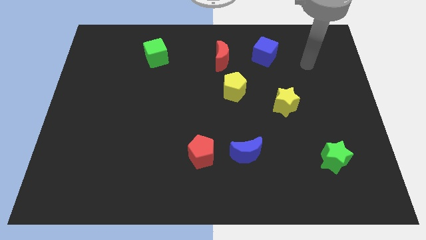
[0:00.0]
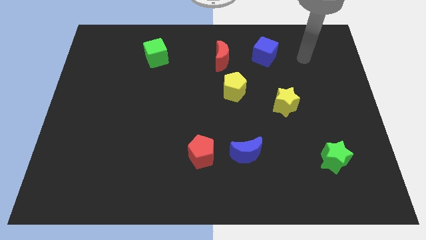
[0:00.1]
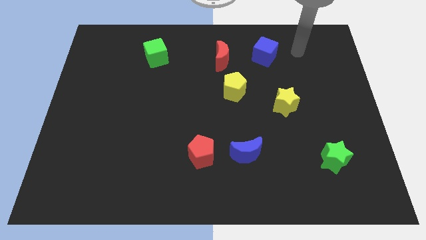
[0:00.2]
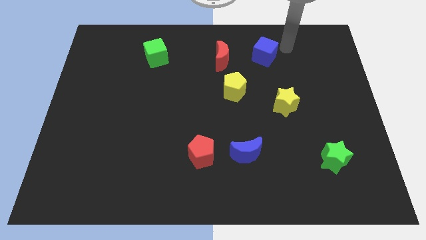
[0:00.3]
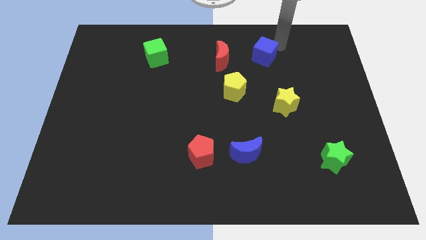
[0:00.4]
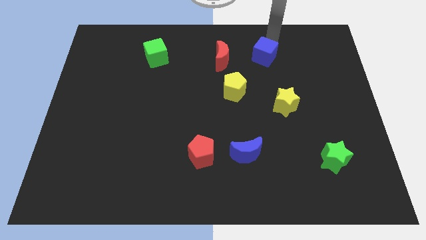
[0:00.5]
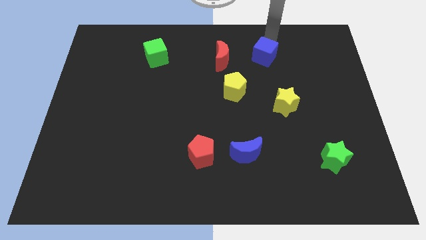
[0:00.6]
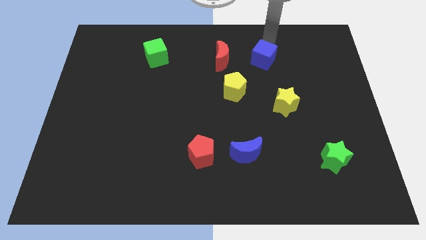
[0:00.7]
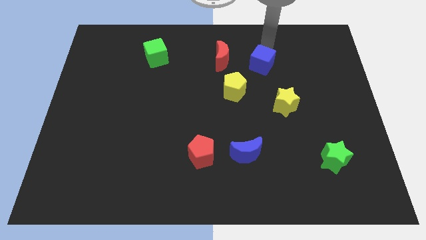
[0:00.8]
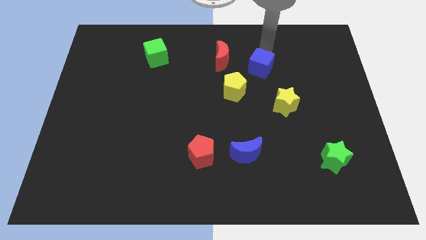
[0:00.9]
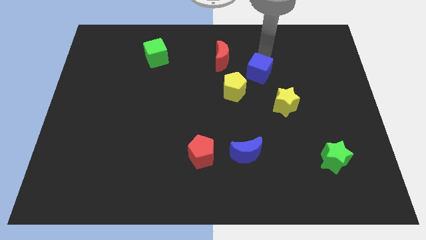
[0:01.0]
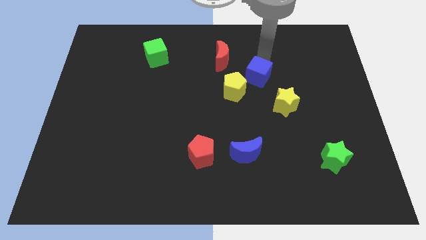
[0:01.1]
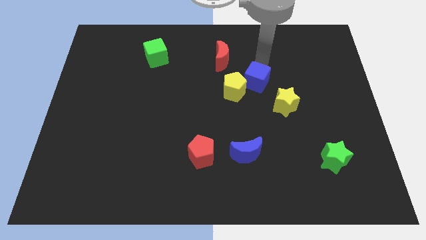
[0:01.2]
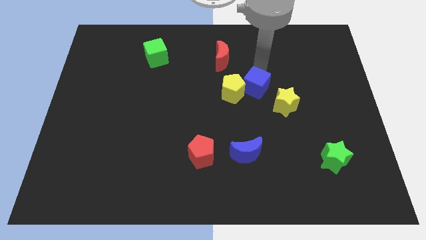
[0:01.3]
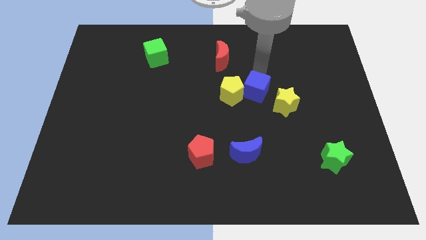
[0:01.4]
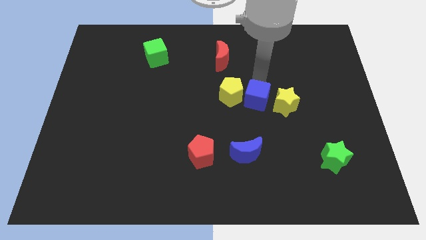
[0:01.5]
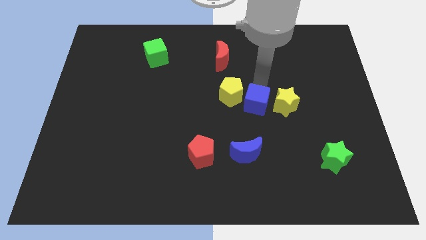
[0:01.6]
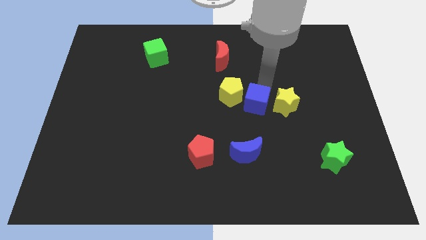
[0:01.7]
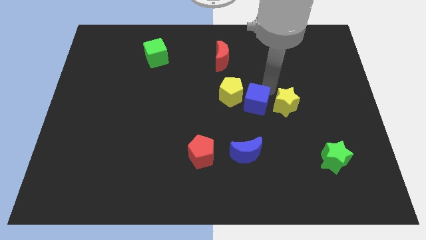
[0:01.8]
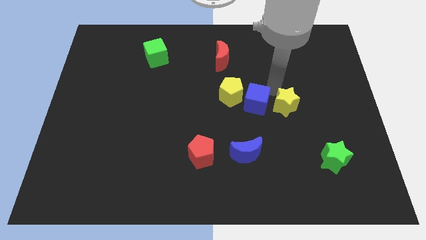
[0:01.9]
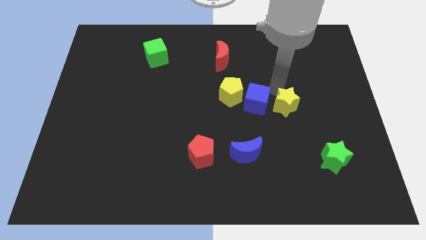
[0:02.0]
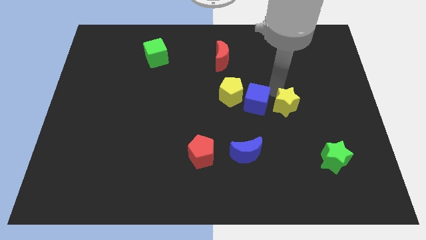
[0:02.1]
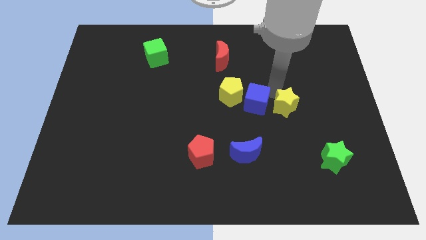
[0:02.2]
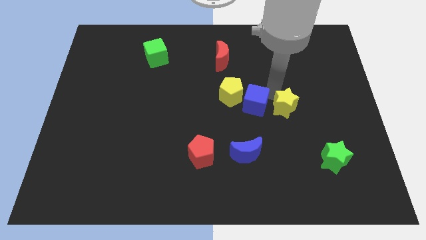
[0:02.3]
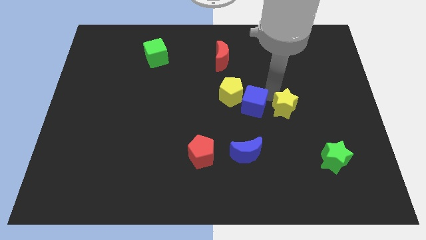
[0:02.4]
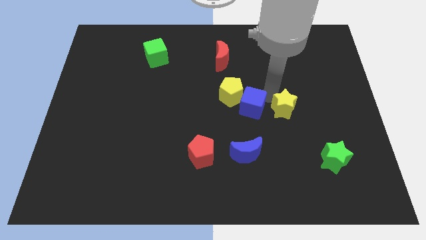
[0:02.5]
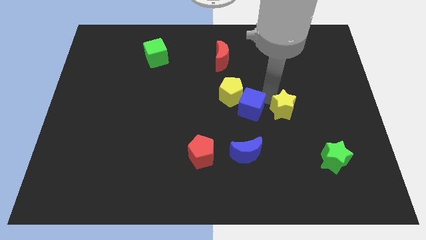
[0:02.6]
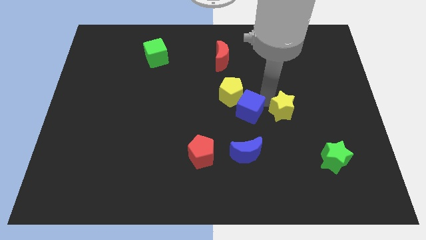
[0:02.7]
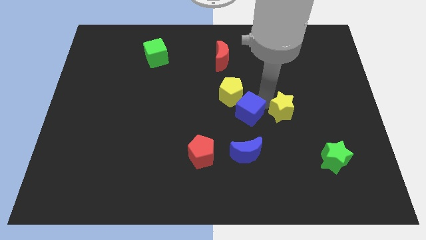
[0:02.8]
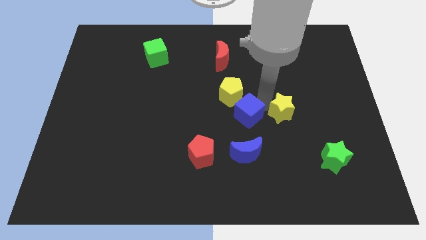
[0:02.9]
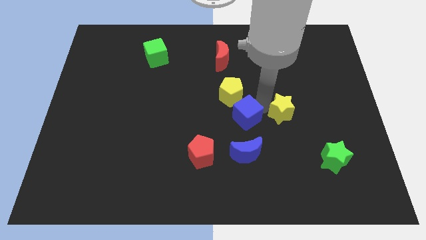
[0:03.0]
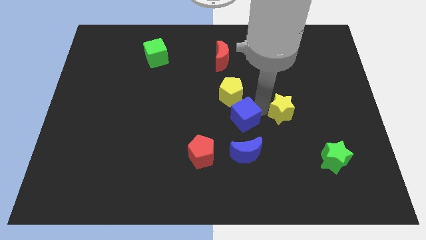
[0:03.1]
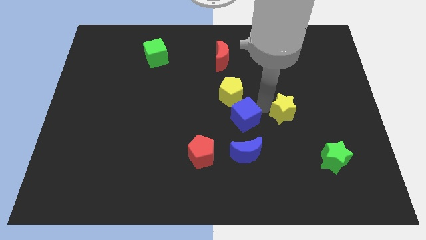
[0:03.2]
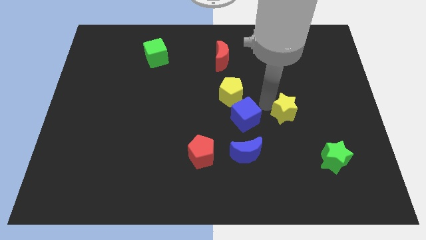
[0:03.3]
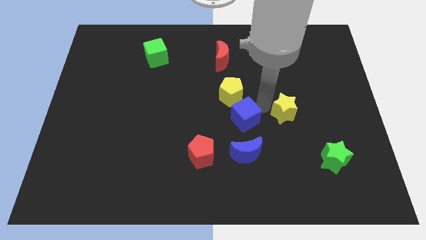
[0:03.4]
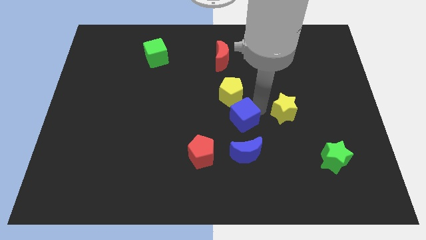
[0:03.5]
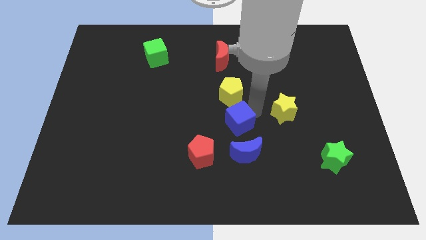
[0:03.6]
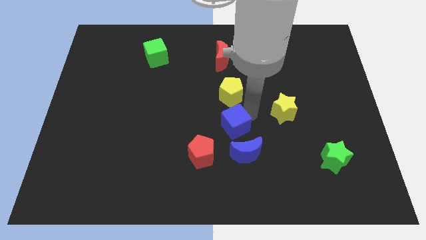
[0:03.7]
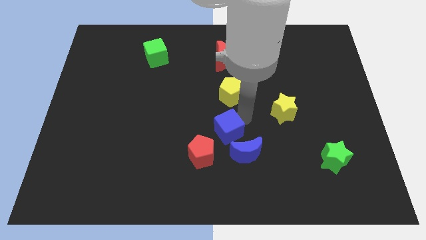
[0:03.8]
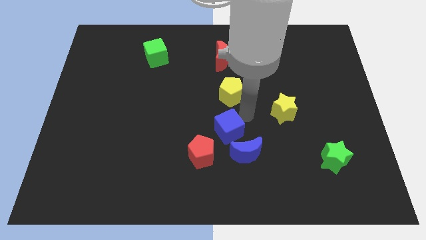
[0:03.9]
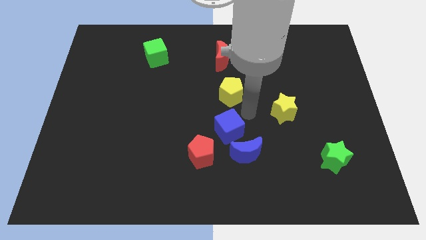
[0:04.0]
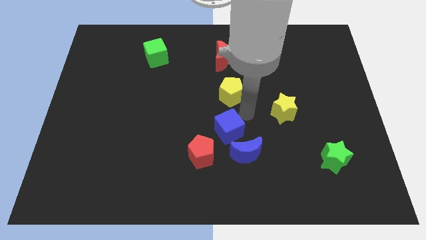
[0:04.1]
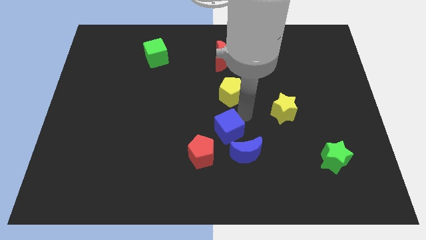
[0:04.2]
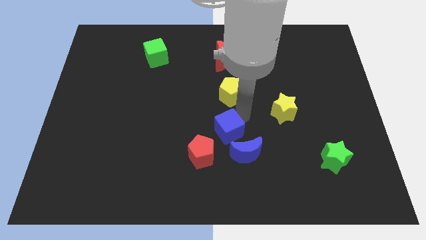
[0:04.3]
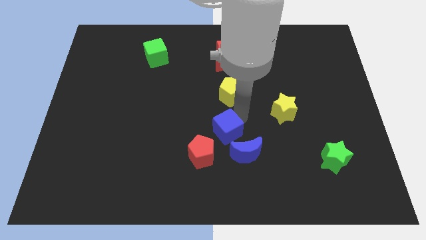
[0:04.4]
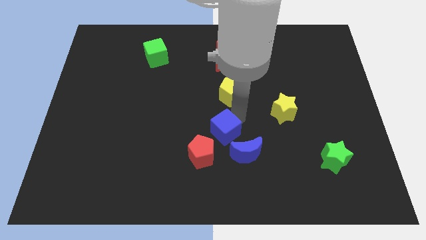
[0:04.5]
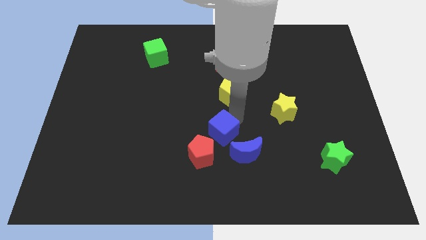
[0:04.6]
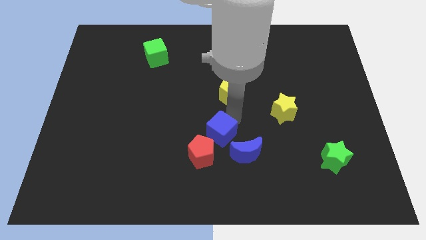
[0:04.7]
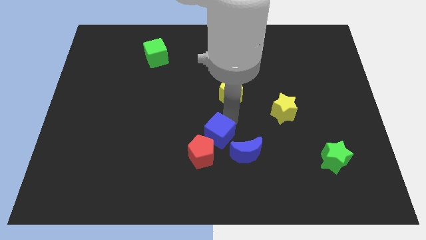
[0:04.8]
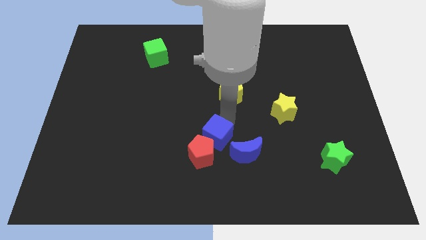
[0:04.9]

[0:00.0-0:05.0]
push the blue cube to the red pentagon

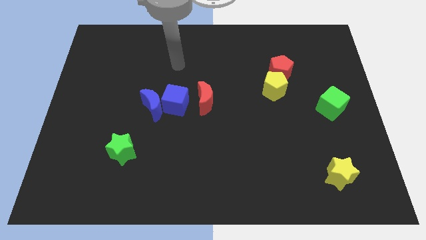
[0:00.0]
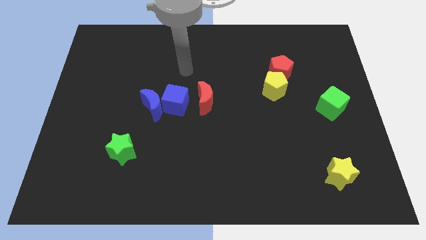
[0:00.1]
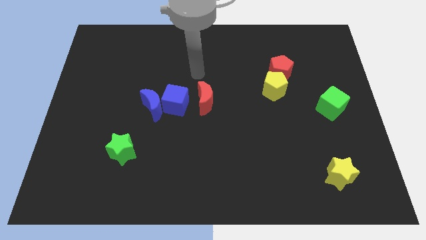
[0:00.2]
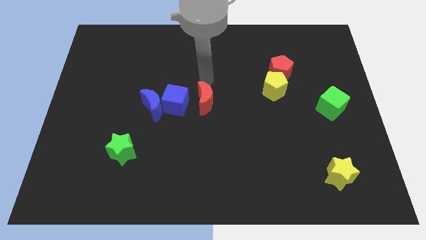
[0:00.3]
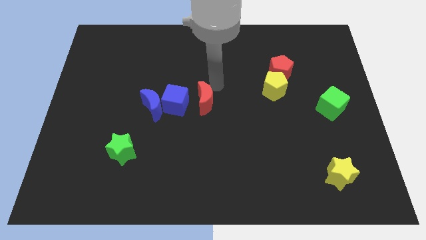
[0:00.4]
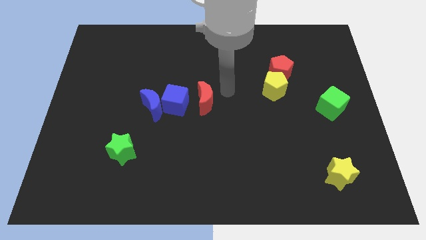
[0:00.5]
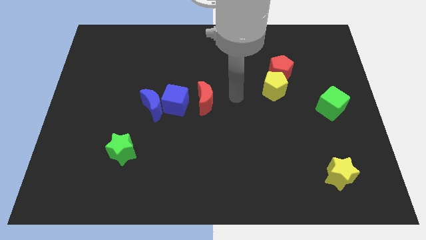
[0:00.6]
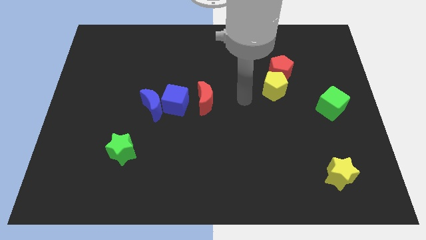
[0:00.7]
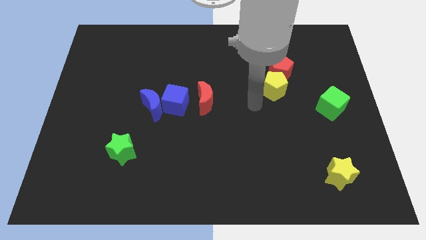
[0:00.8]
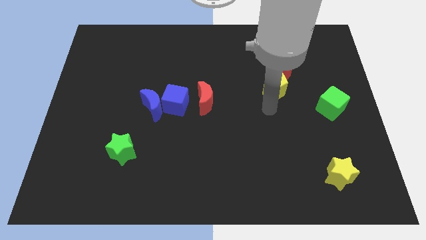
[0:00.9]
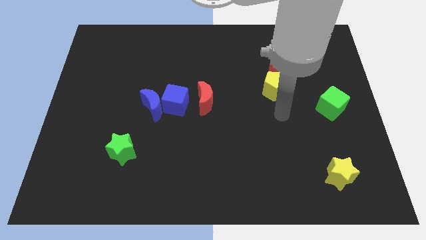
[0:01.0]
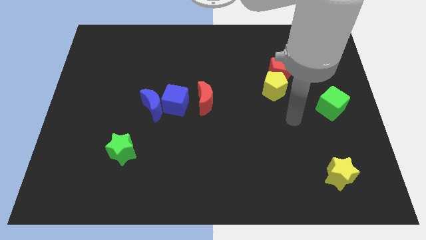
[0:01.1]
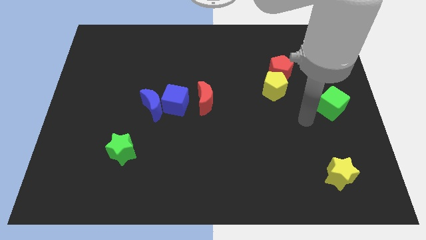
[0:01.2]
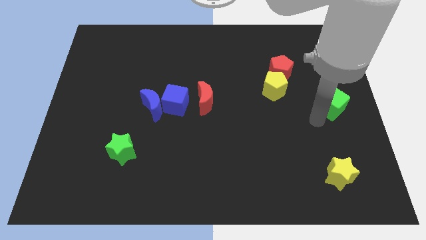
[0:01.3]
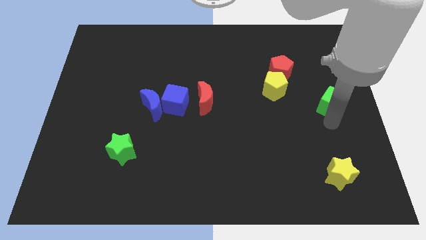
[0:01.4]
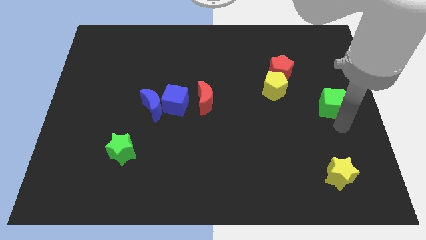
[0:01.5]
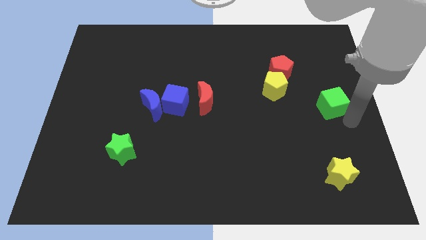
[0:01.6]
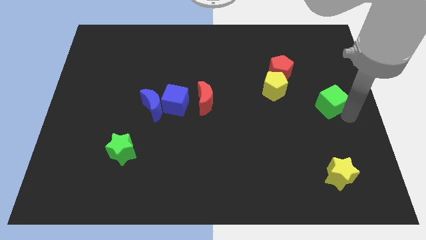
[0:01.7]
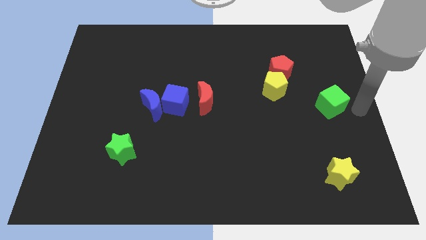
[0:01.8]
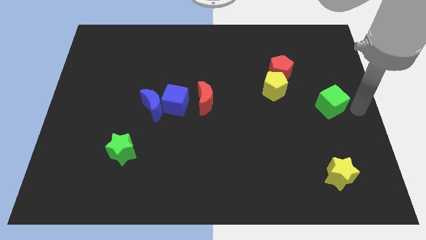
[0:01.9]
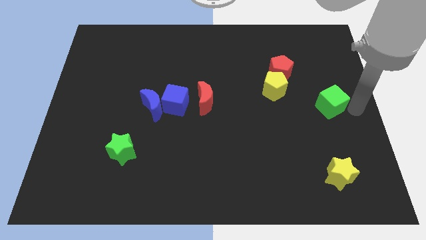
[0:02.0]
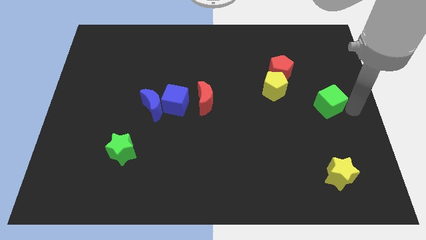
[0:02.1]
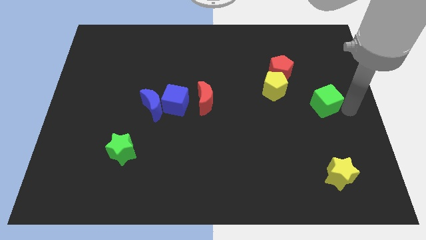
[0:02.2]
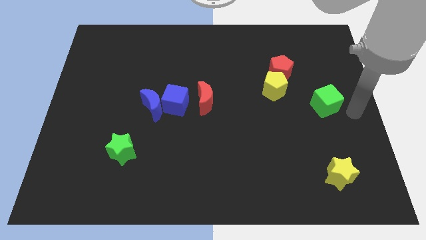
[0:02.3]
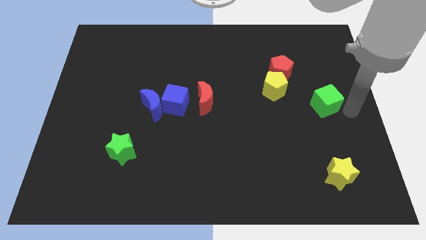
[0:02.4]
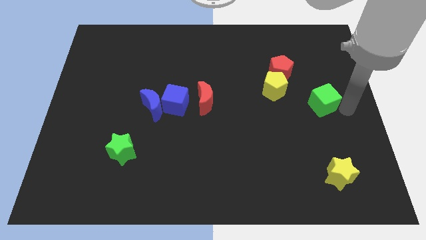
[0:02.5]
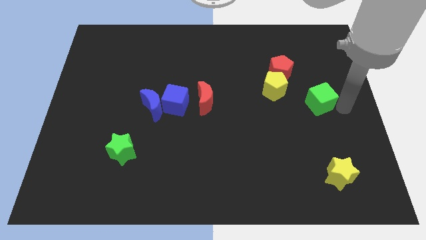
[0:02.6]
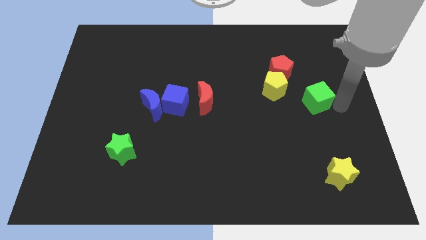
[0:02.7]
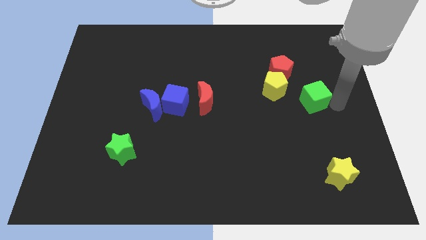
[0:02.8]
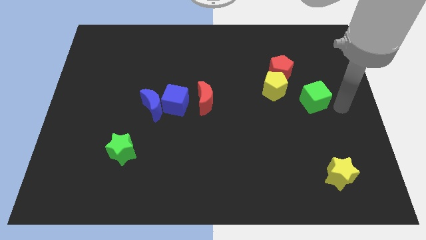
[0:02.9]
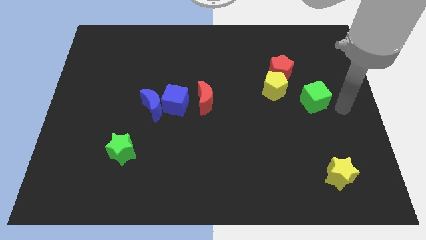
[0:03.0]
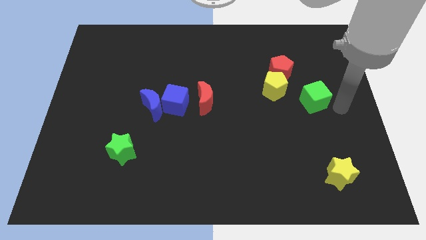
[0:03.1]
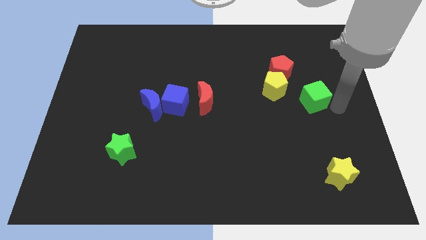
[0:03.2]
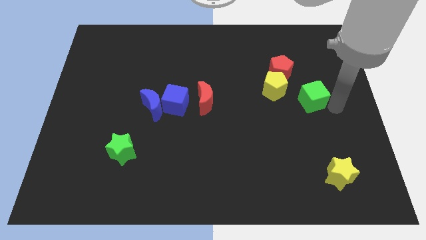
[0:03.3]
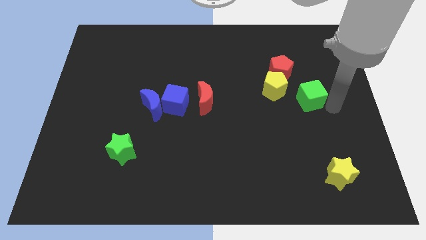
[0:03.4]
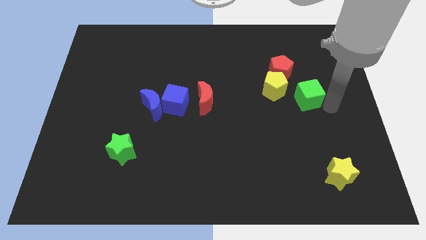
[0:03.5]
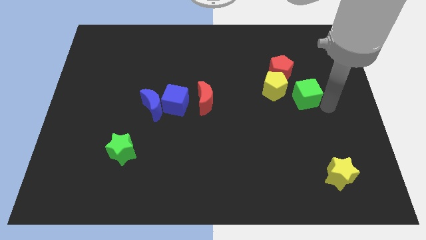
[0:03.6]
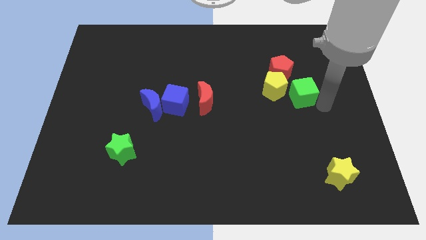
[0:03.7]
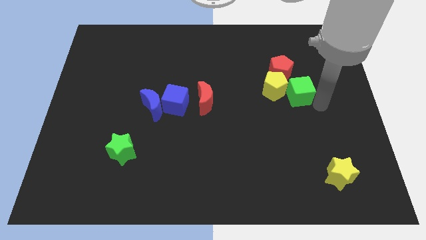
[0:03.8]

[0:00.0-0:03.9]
slide the green cube close to the yellow pentagon
